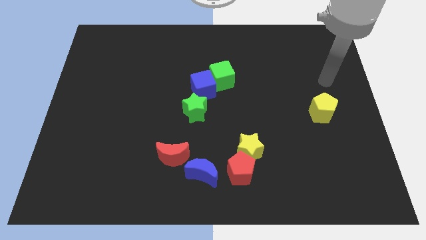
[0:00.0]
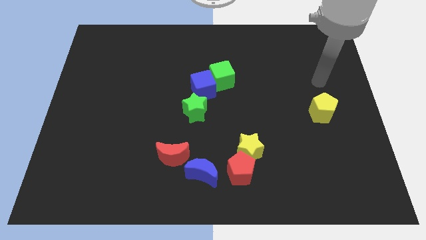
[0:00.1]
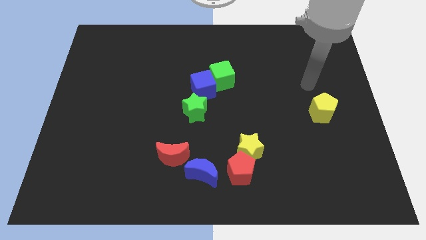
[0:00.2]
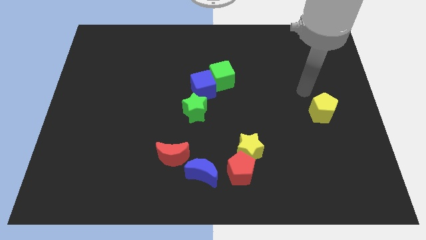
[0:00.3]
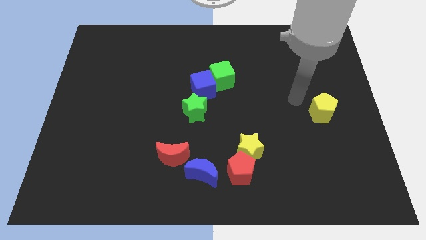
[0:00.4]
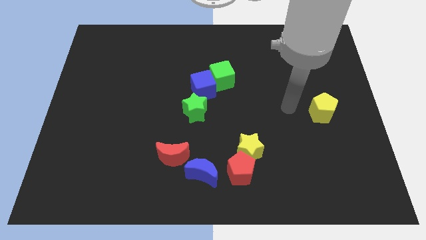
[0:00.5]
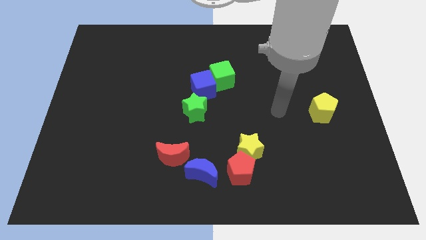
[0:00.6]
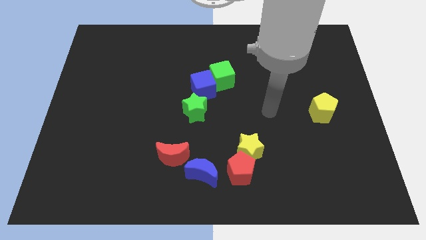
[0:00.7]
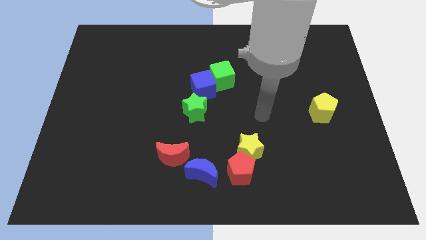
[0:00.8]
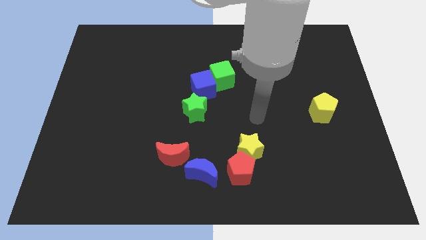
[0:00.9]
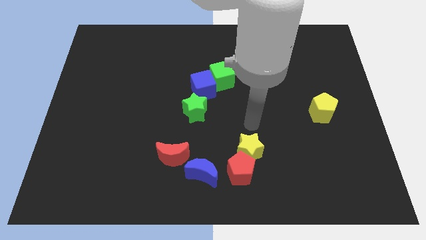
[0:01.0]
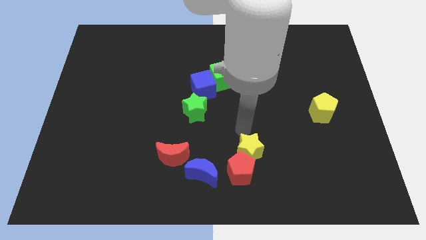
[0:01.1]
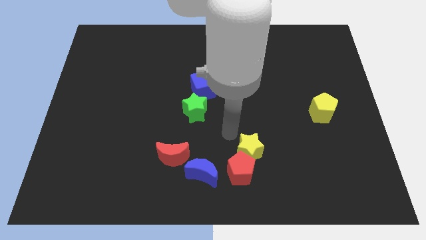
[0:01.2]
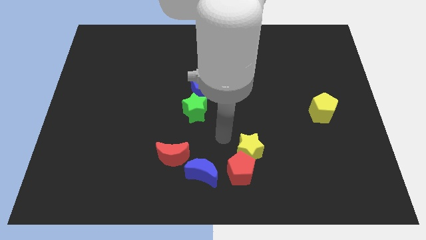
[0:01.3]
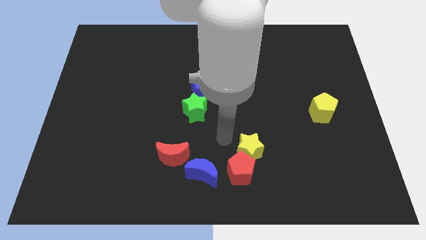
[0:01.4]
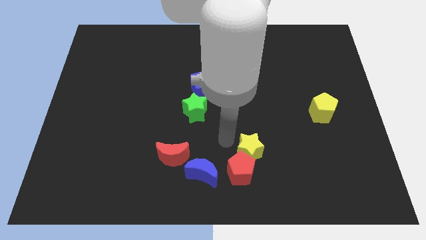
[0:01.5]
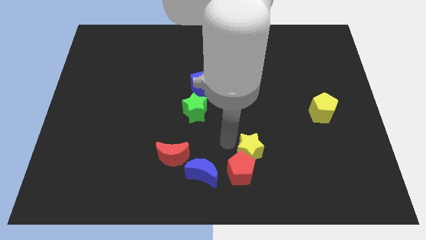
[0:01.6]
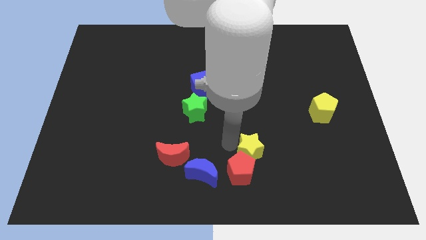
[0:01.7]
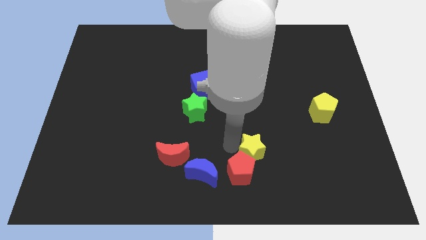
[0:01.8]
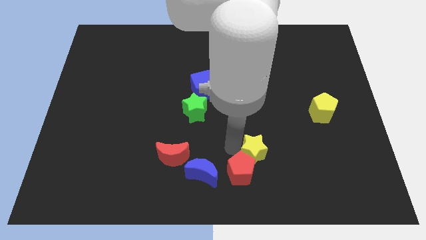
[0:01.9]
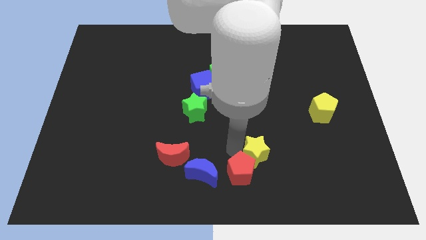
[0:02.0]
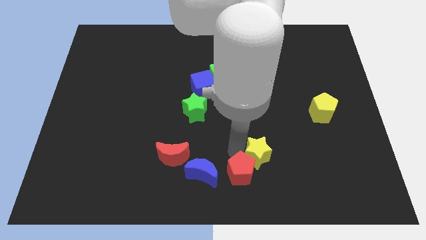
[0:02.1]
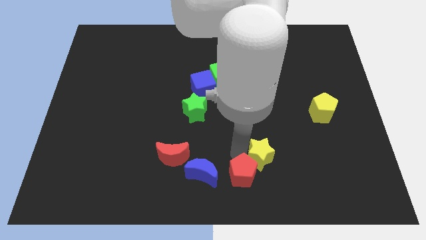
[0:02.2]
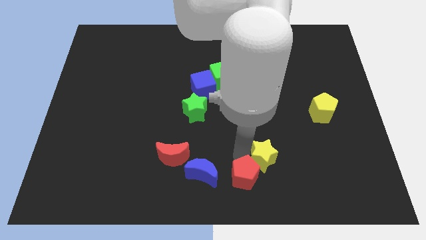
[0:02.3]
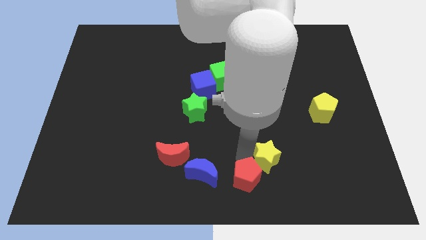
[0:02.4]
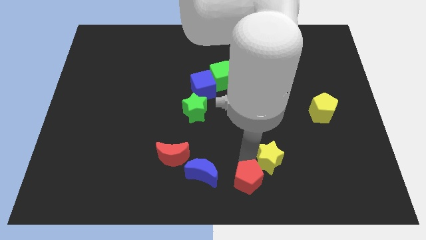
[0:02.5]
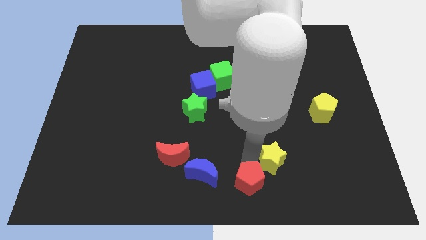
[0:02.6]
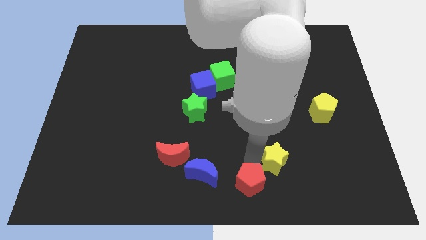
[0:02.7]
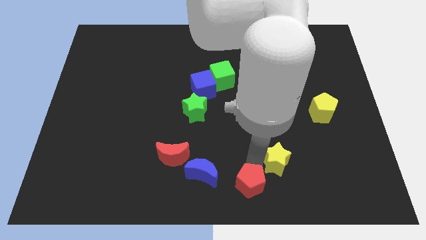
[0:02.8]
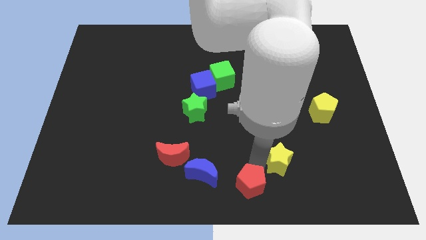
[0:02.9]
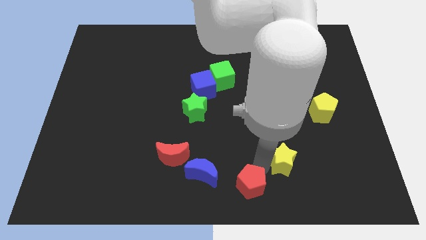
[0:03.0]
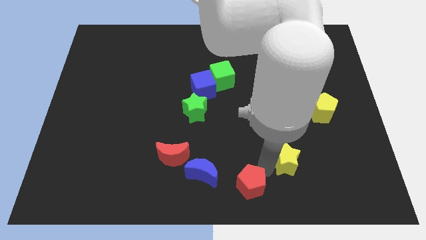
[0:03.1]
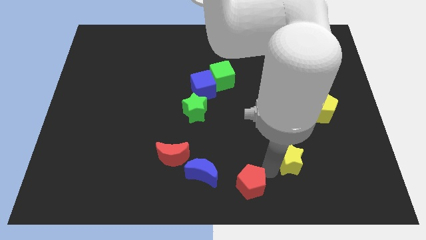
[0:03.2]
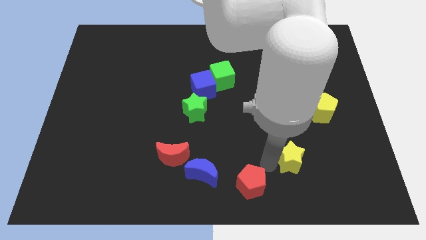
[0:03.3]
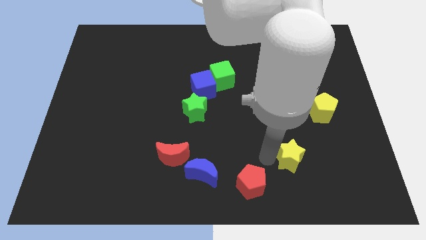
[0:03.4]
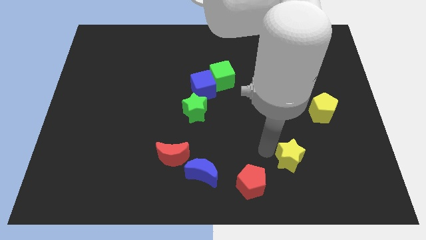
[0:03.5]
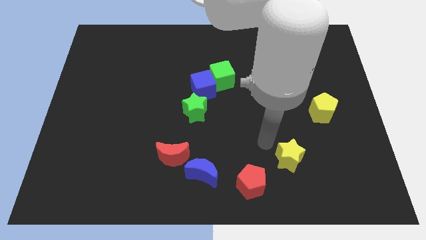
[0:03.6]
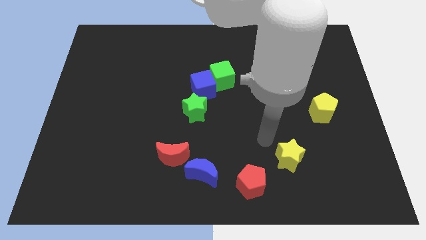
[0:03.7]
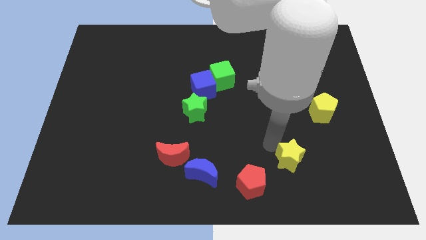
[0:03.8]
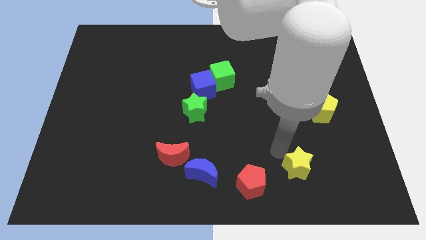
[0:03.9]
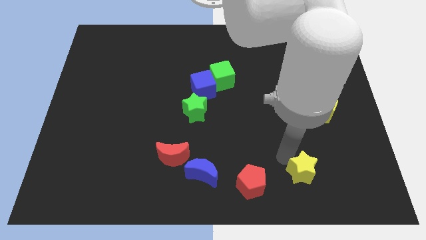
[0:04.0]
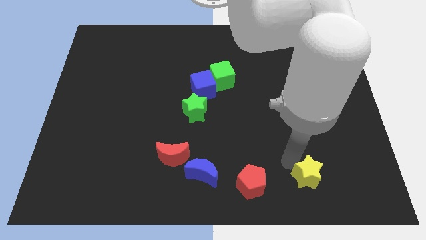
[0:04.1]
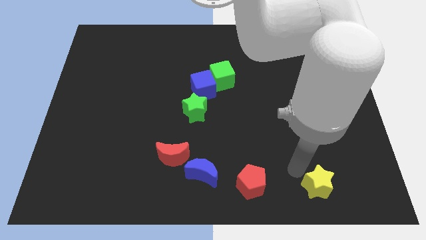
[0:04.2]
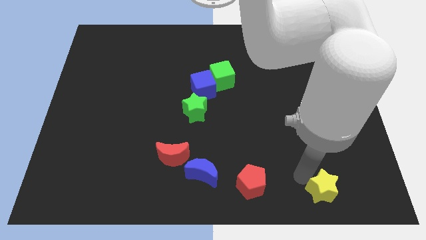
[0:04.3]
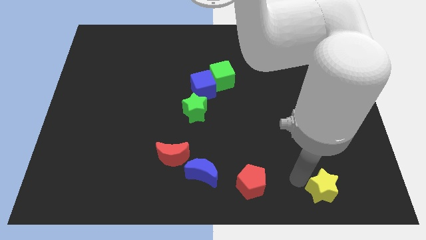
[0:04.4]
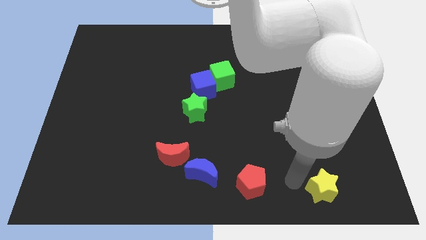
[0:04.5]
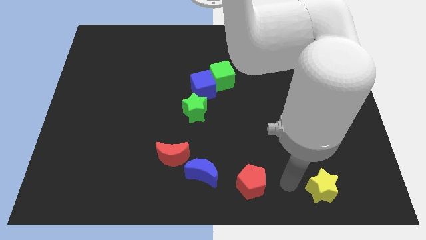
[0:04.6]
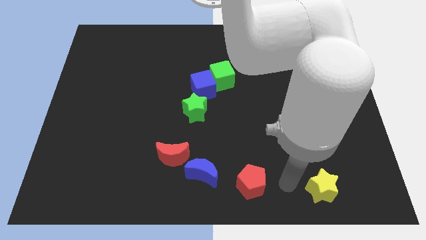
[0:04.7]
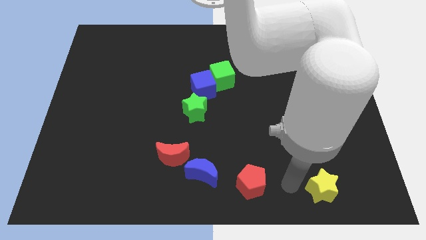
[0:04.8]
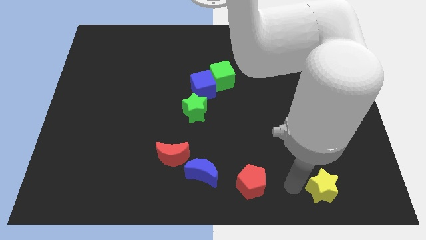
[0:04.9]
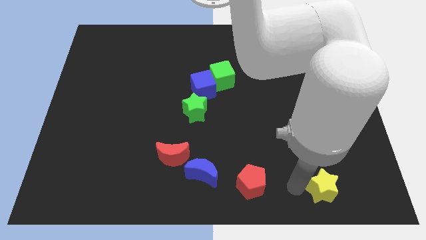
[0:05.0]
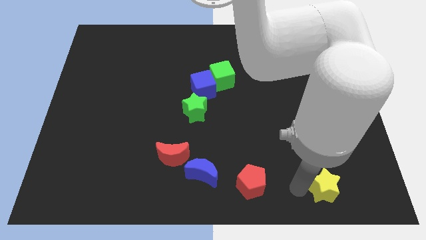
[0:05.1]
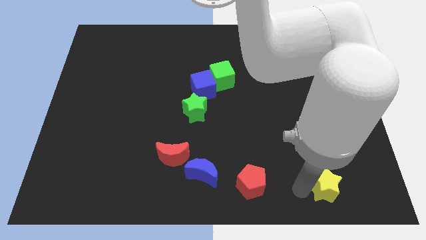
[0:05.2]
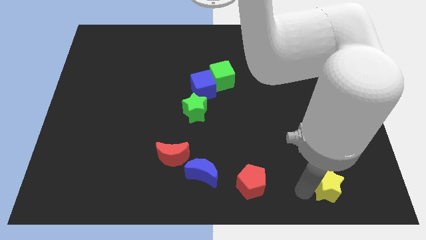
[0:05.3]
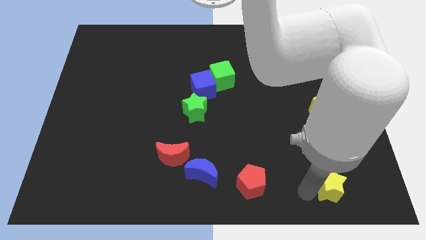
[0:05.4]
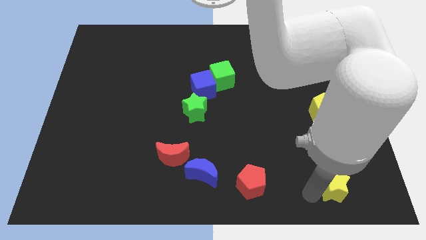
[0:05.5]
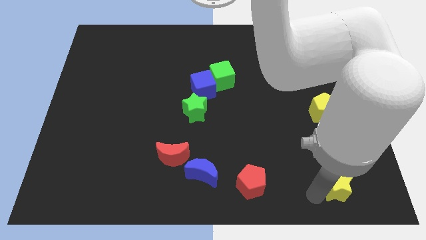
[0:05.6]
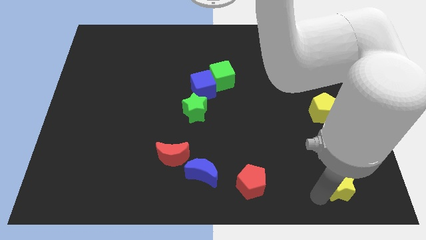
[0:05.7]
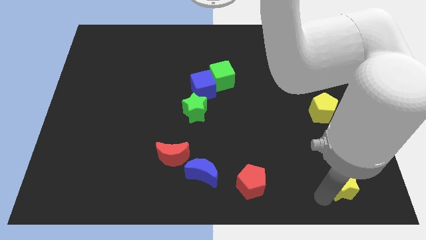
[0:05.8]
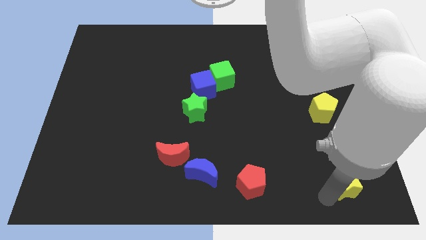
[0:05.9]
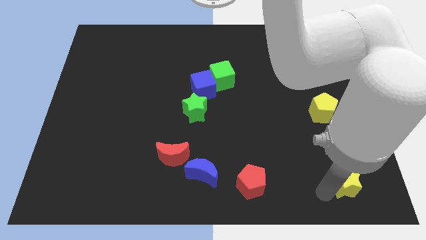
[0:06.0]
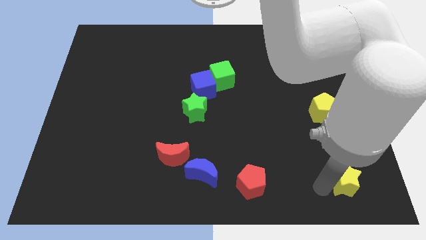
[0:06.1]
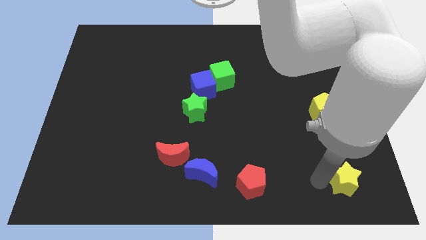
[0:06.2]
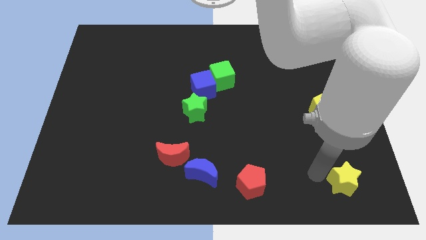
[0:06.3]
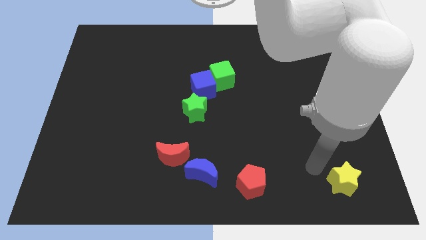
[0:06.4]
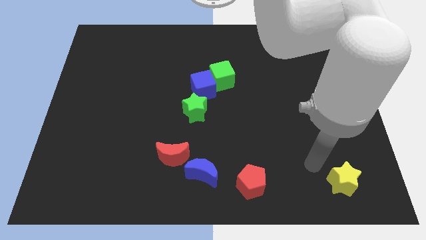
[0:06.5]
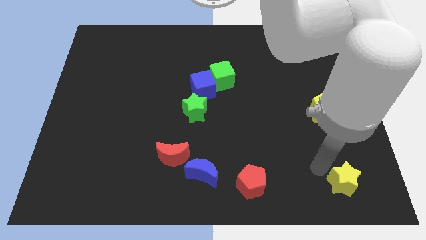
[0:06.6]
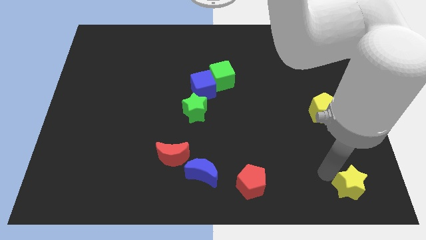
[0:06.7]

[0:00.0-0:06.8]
slide the yellow star to the bottom right
